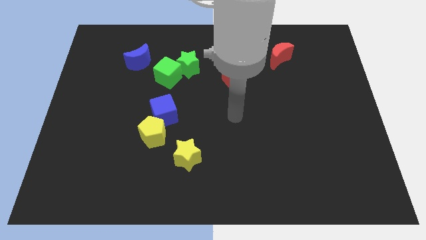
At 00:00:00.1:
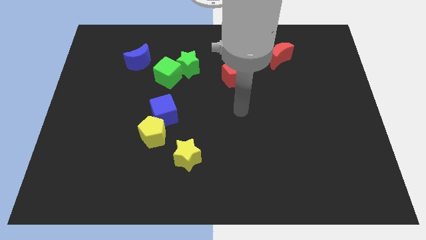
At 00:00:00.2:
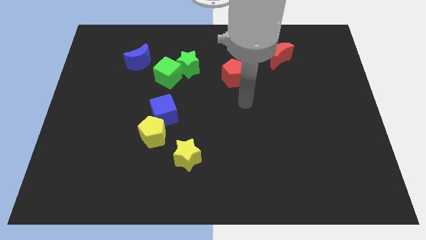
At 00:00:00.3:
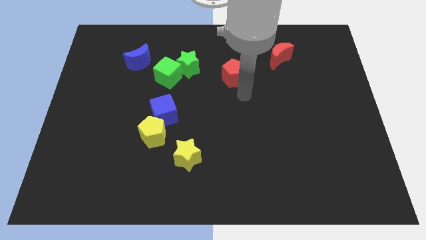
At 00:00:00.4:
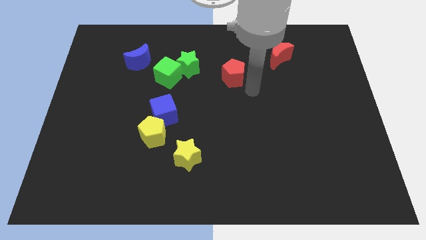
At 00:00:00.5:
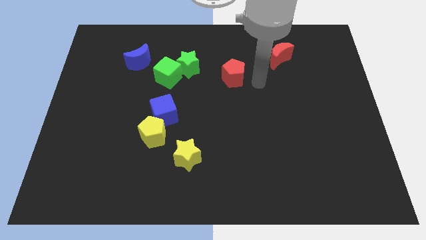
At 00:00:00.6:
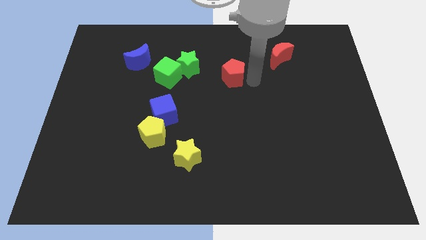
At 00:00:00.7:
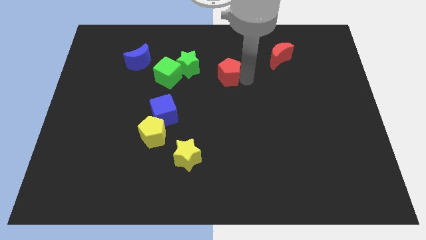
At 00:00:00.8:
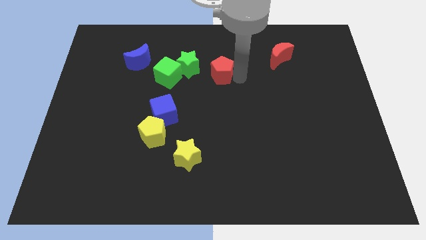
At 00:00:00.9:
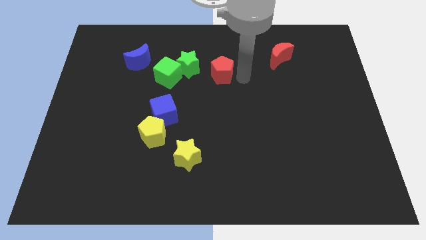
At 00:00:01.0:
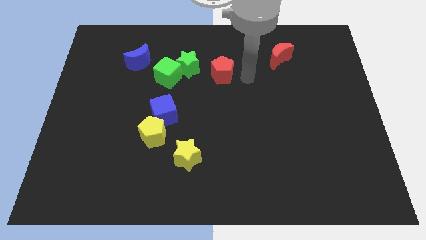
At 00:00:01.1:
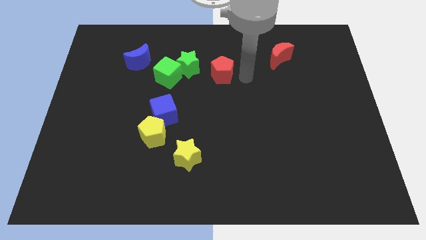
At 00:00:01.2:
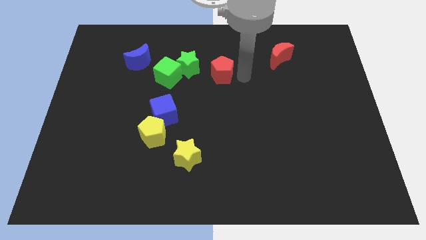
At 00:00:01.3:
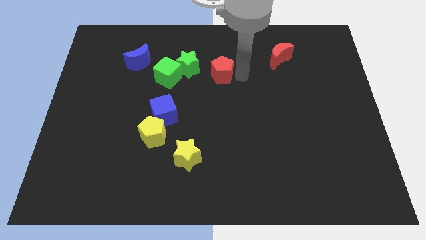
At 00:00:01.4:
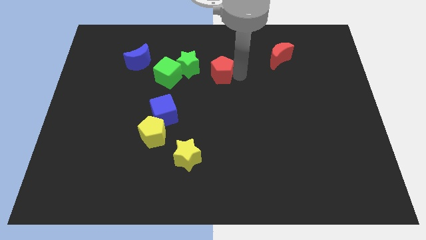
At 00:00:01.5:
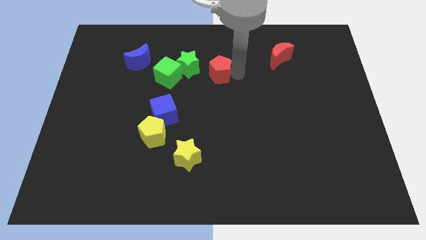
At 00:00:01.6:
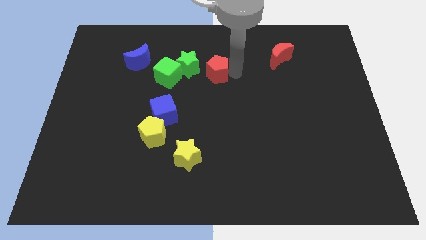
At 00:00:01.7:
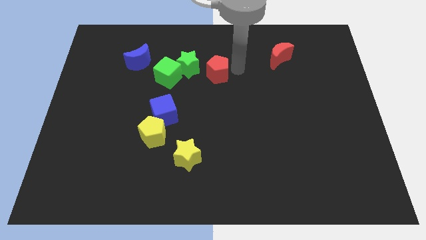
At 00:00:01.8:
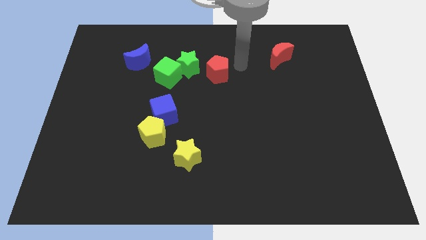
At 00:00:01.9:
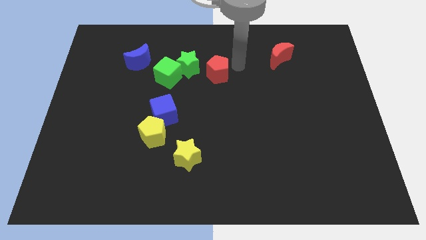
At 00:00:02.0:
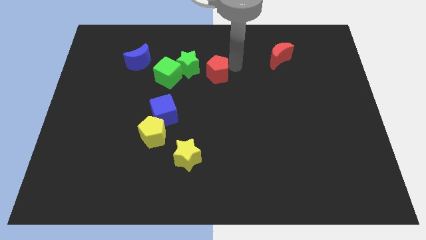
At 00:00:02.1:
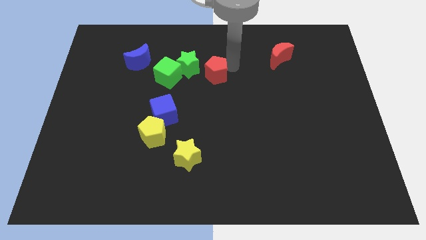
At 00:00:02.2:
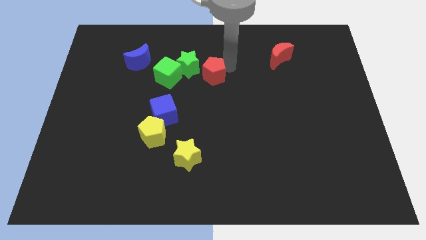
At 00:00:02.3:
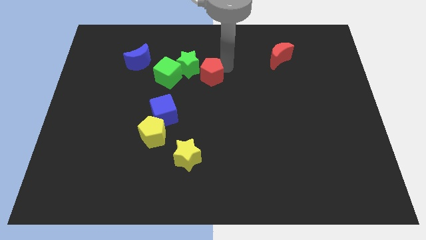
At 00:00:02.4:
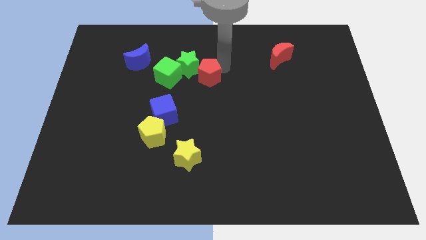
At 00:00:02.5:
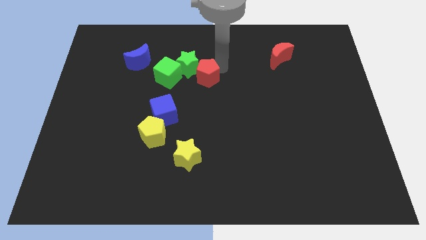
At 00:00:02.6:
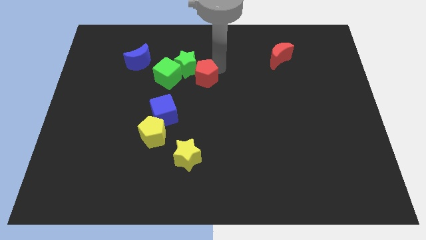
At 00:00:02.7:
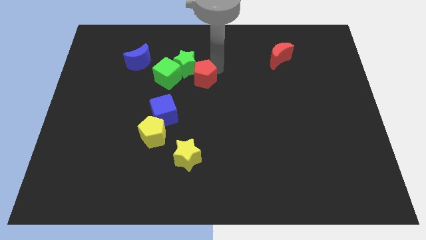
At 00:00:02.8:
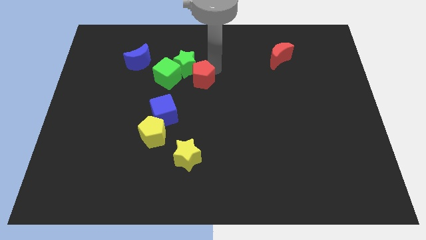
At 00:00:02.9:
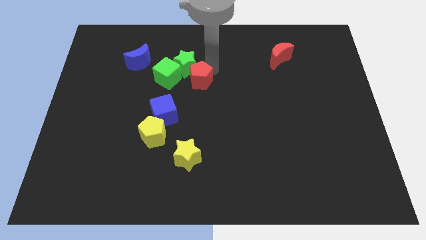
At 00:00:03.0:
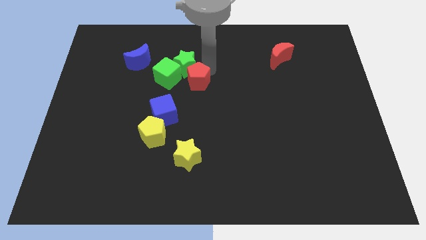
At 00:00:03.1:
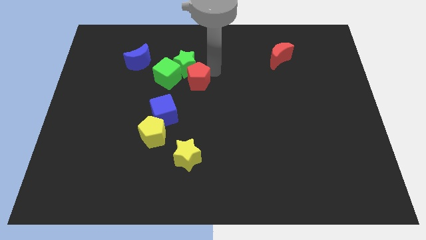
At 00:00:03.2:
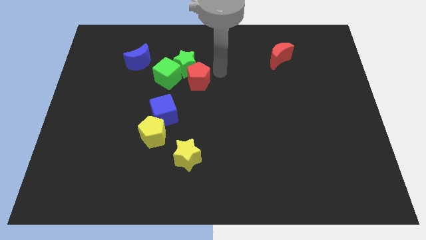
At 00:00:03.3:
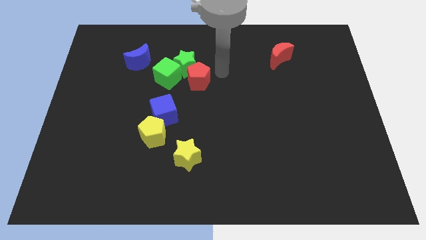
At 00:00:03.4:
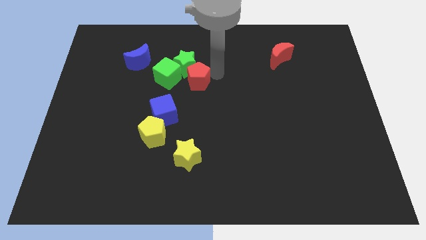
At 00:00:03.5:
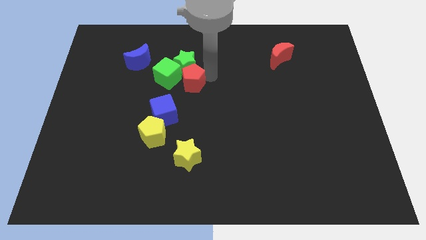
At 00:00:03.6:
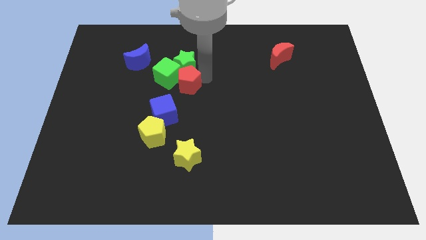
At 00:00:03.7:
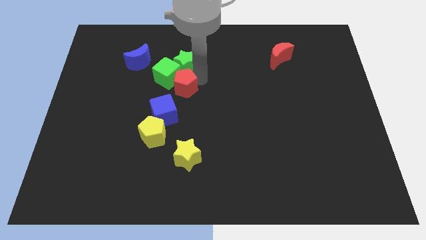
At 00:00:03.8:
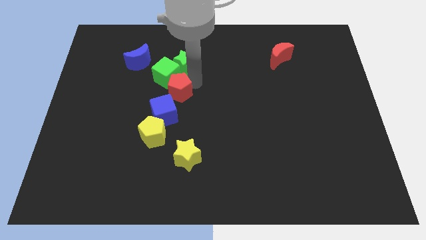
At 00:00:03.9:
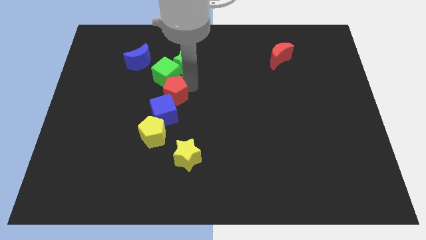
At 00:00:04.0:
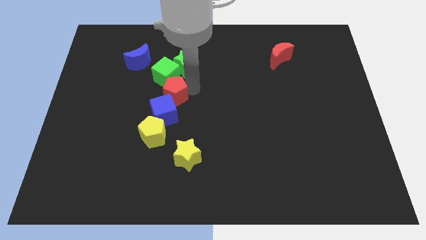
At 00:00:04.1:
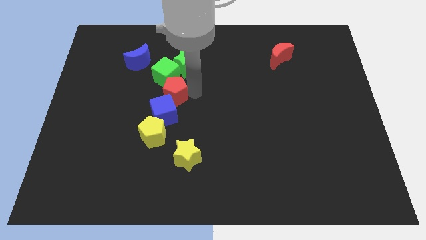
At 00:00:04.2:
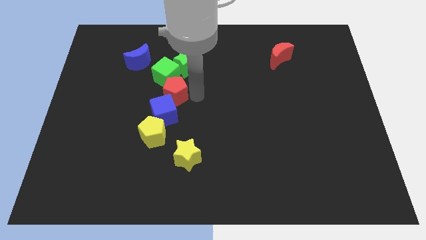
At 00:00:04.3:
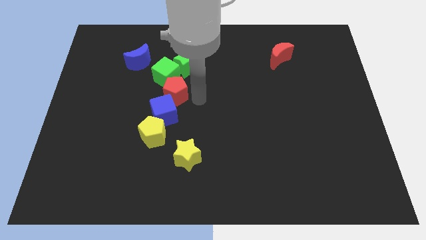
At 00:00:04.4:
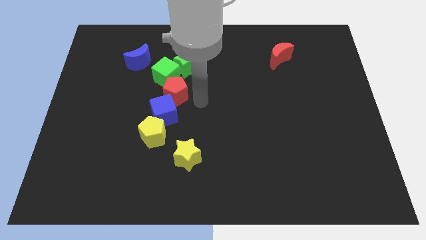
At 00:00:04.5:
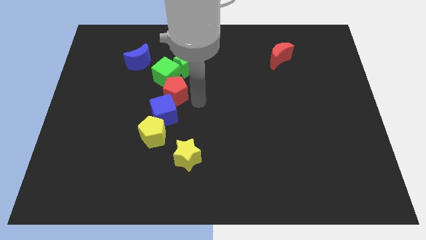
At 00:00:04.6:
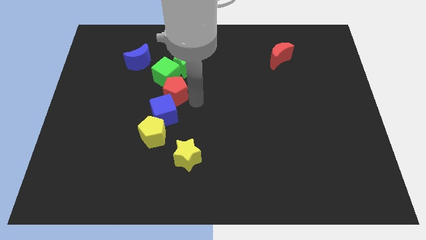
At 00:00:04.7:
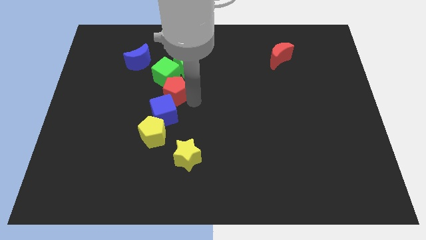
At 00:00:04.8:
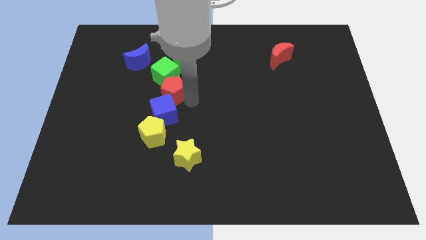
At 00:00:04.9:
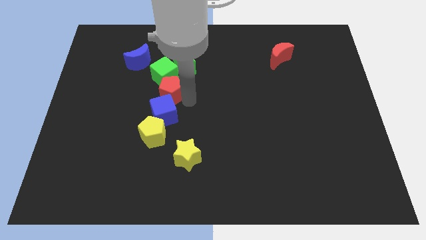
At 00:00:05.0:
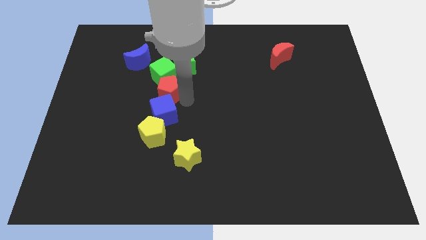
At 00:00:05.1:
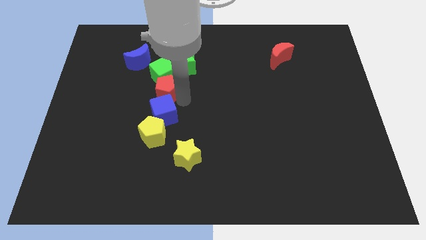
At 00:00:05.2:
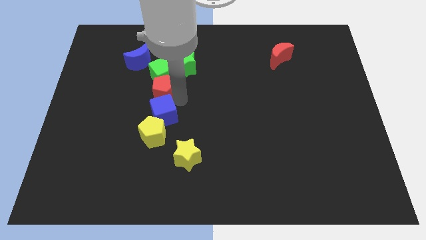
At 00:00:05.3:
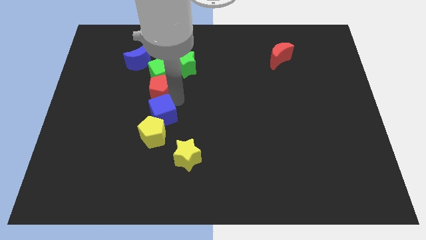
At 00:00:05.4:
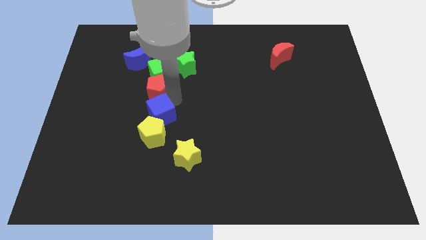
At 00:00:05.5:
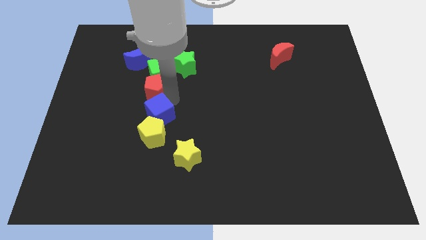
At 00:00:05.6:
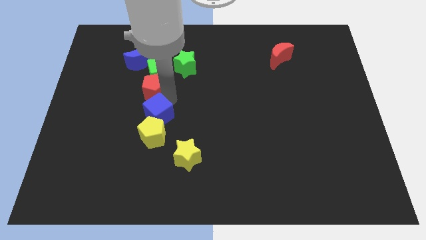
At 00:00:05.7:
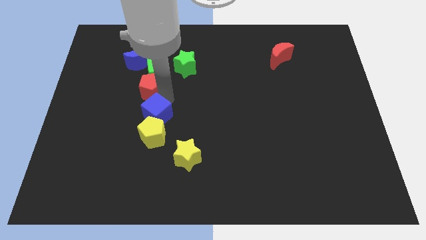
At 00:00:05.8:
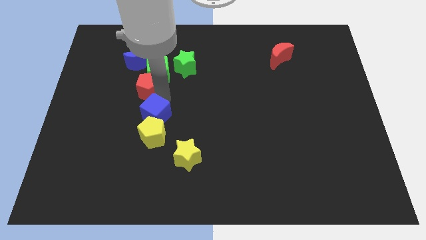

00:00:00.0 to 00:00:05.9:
move the red pentagon to the left

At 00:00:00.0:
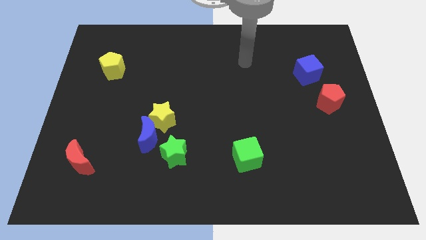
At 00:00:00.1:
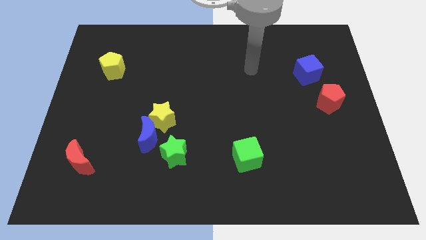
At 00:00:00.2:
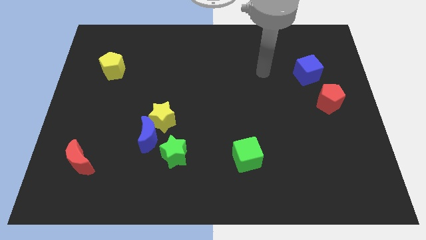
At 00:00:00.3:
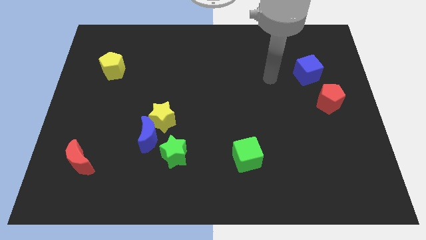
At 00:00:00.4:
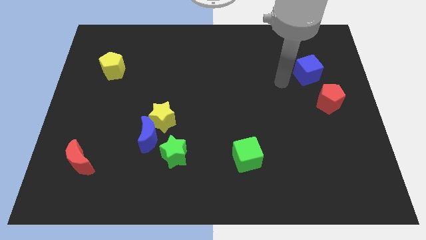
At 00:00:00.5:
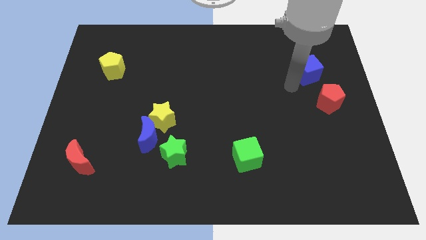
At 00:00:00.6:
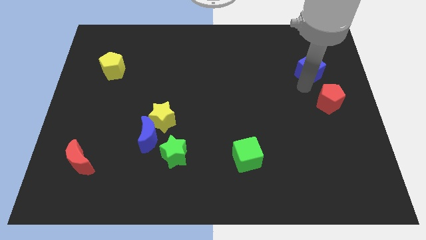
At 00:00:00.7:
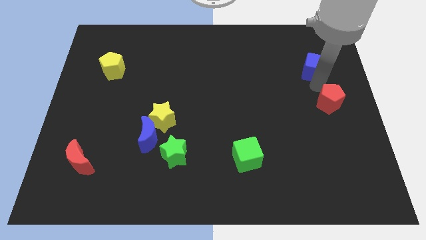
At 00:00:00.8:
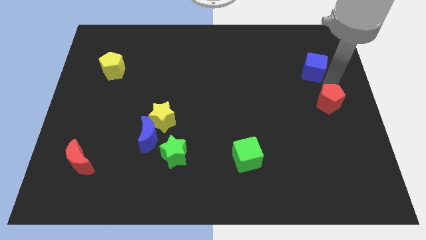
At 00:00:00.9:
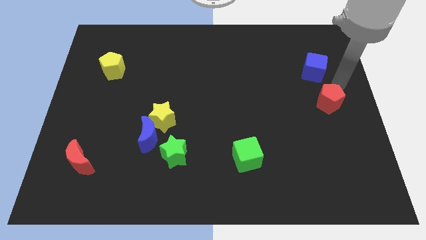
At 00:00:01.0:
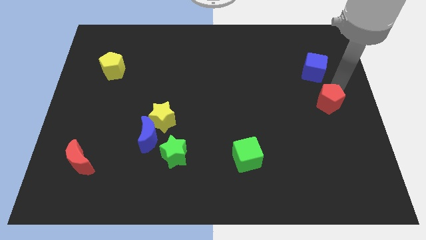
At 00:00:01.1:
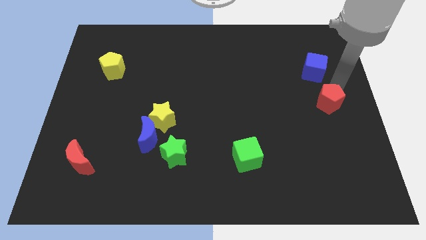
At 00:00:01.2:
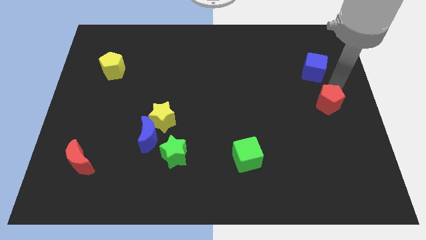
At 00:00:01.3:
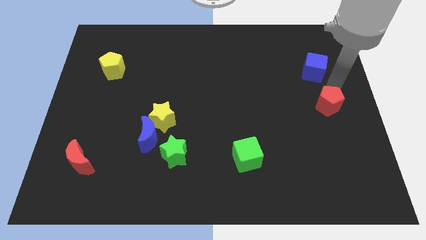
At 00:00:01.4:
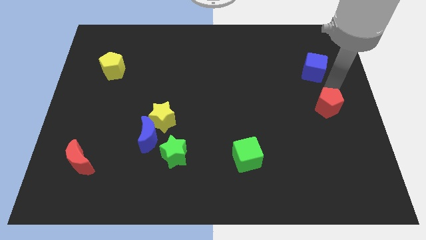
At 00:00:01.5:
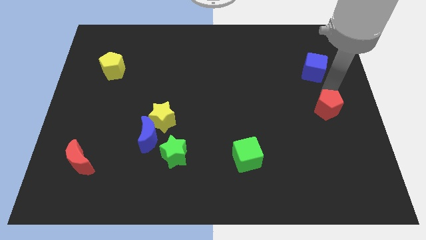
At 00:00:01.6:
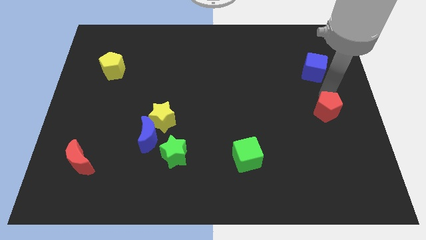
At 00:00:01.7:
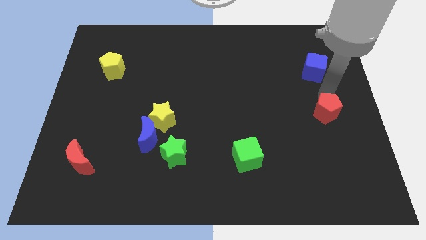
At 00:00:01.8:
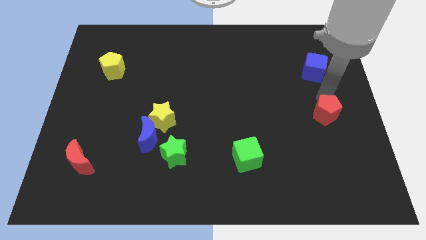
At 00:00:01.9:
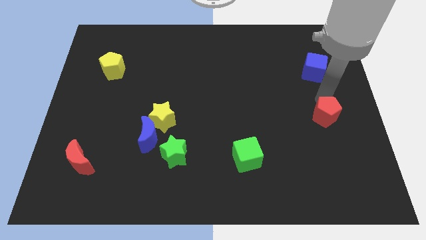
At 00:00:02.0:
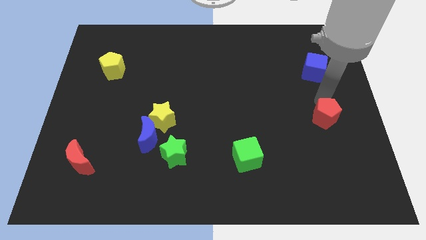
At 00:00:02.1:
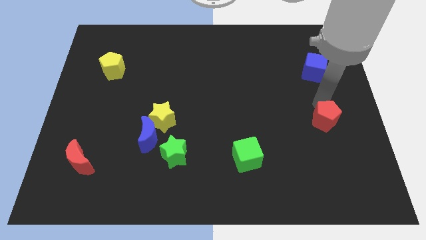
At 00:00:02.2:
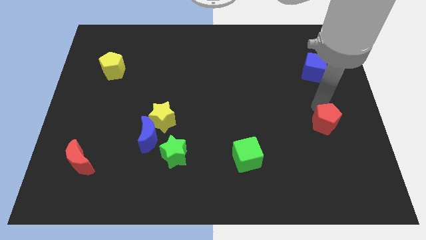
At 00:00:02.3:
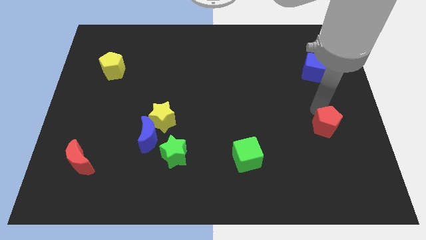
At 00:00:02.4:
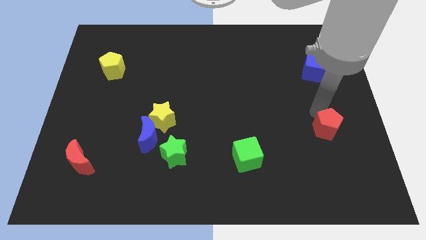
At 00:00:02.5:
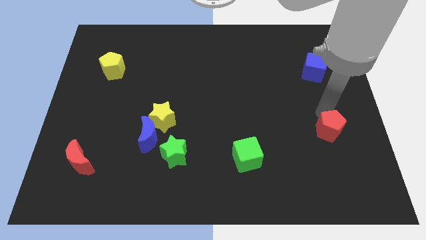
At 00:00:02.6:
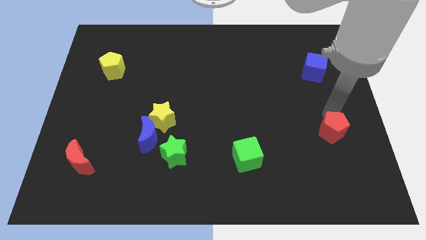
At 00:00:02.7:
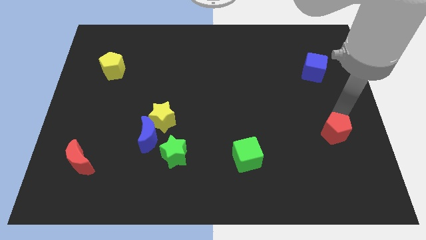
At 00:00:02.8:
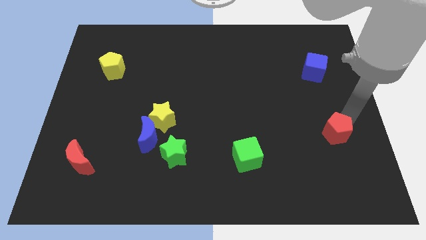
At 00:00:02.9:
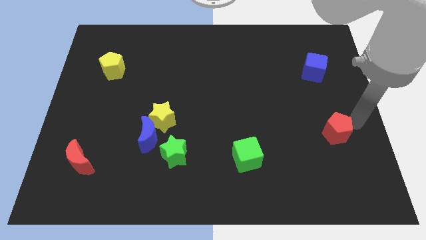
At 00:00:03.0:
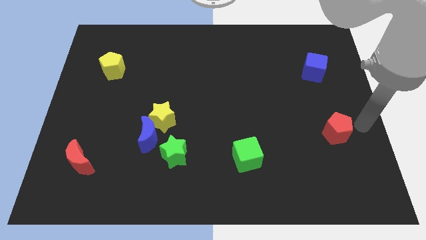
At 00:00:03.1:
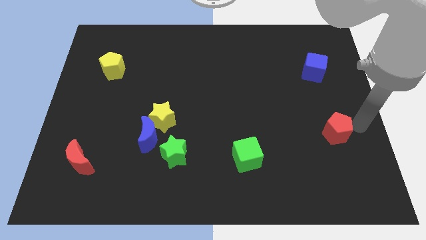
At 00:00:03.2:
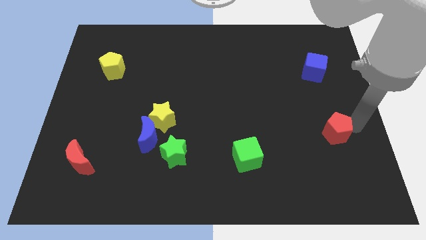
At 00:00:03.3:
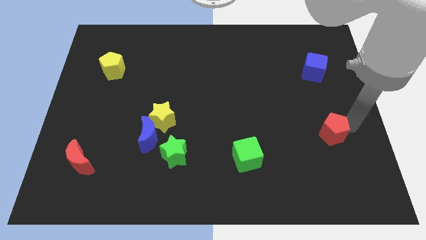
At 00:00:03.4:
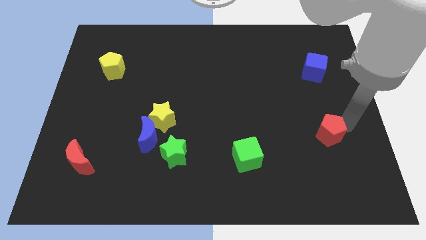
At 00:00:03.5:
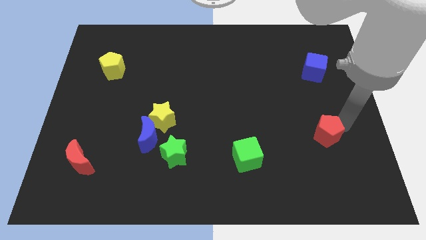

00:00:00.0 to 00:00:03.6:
slightly move the red pentagon downwards and then left
